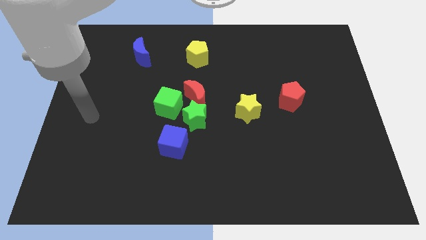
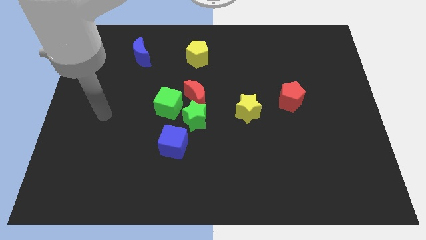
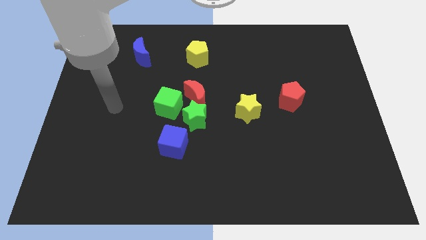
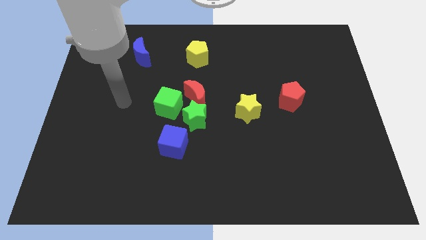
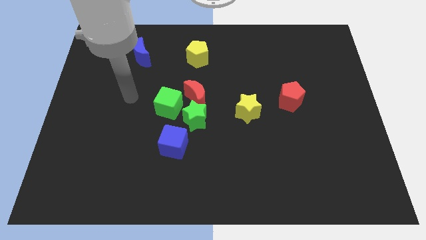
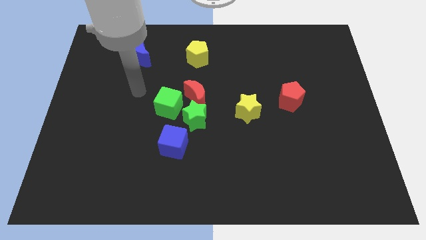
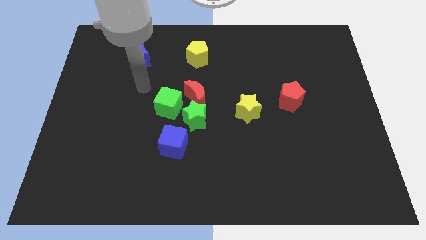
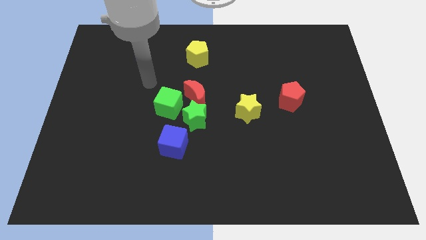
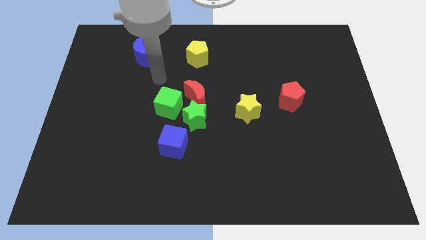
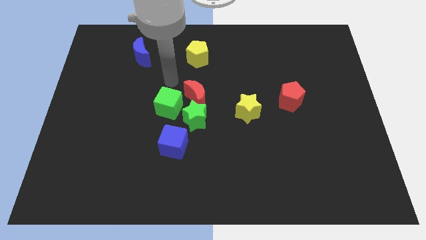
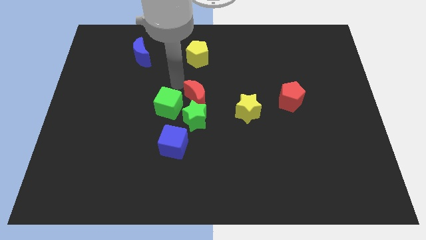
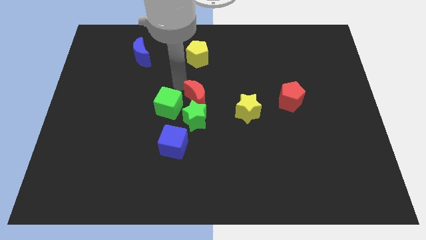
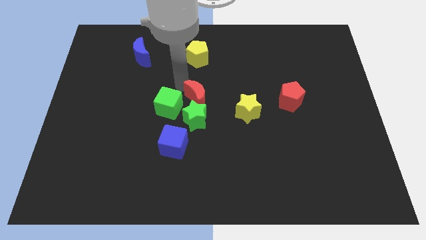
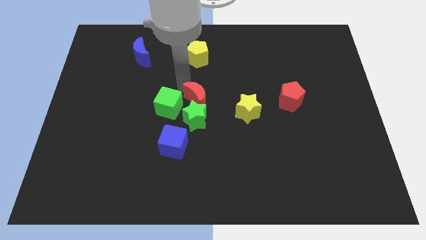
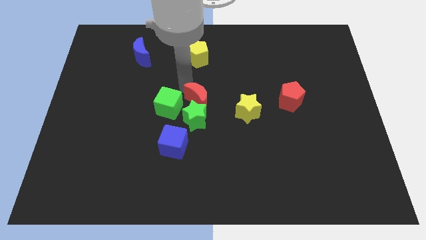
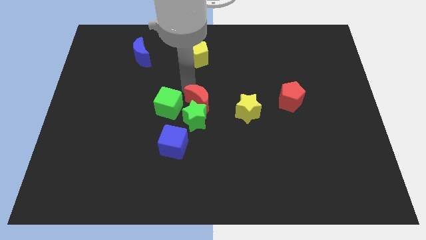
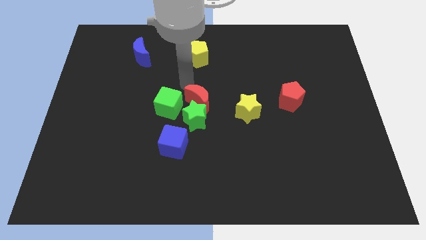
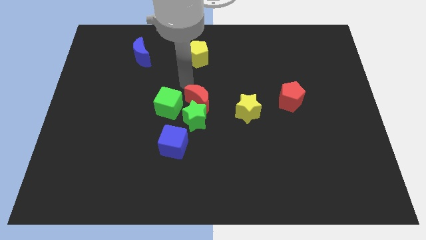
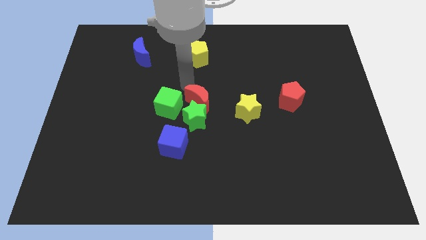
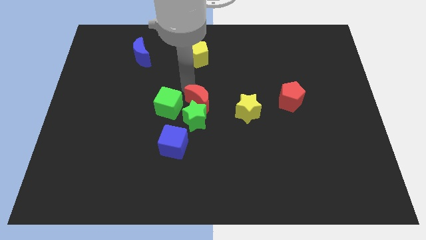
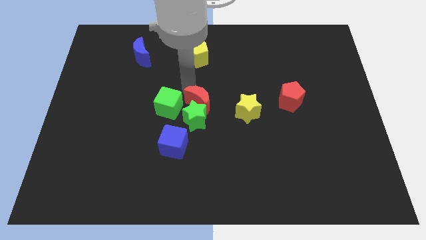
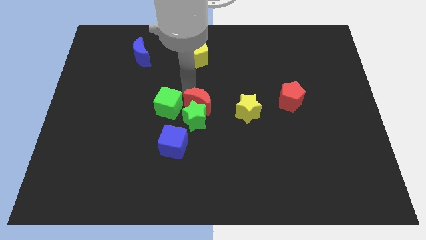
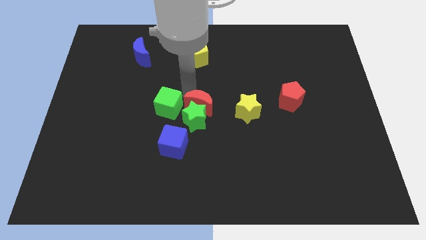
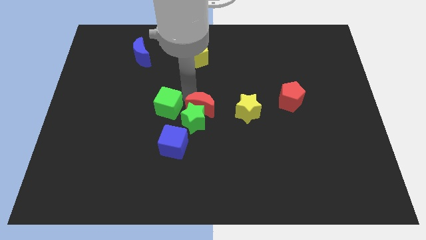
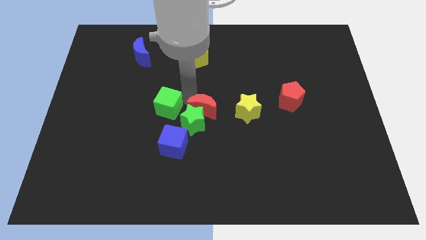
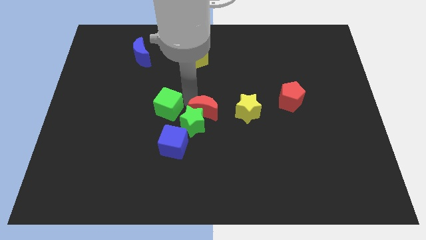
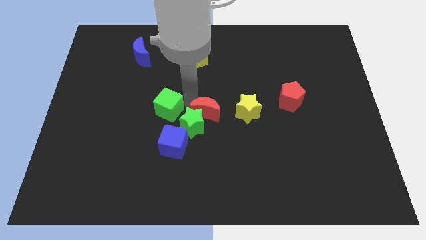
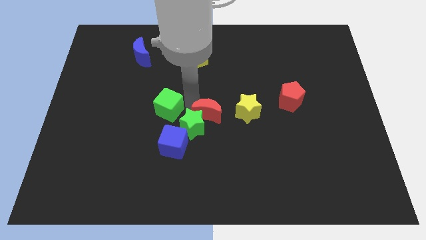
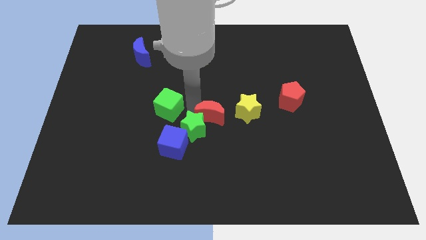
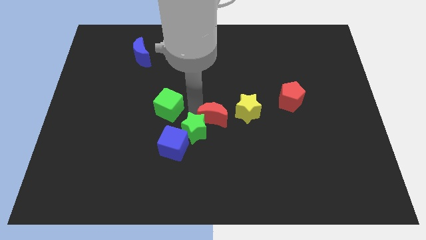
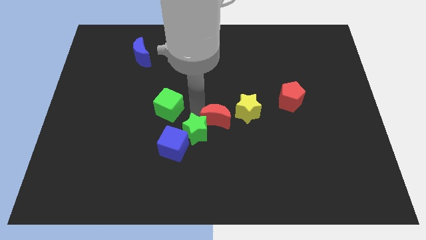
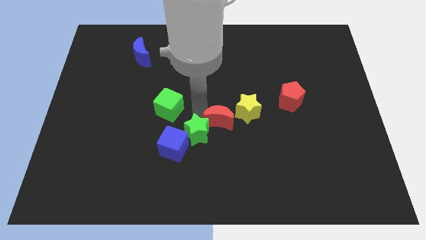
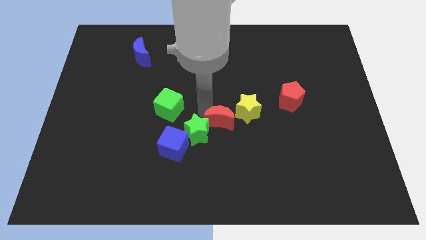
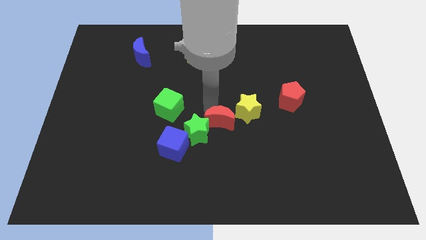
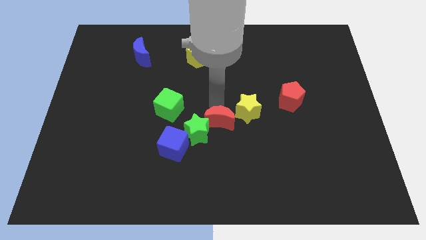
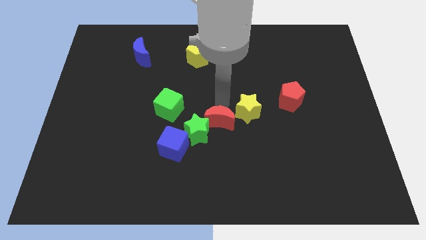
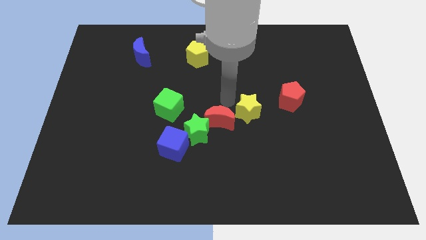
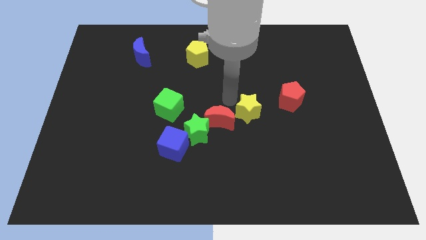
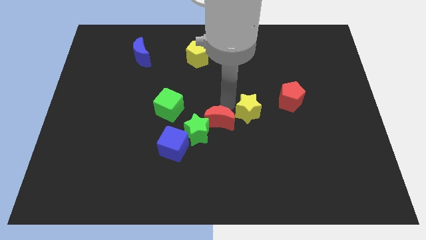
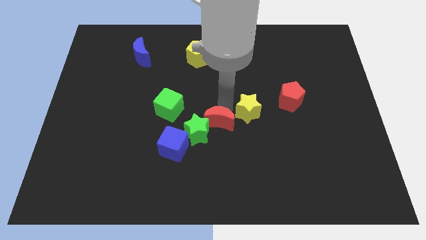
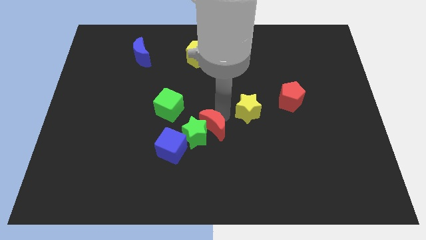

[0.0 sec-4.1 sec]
move the red moon down a little

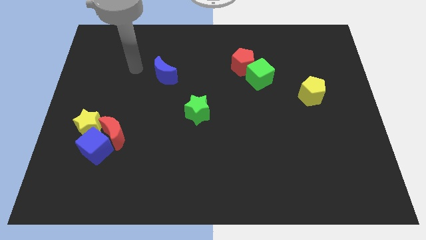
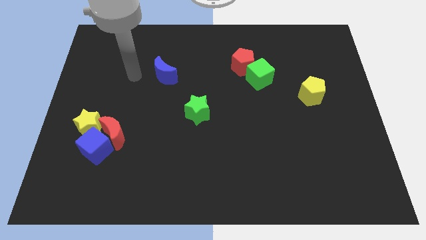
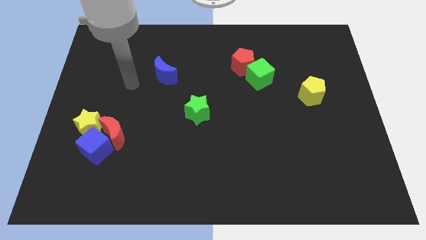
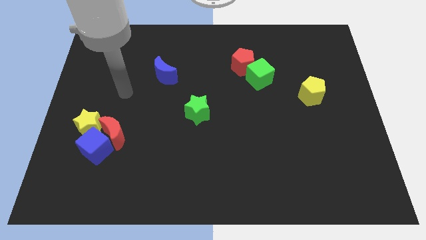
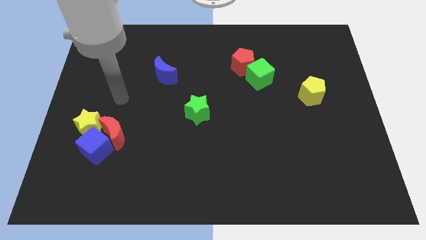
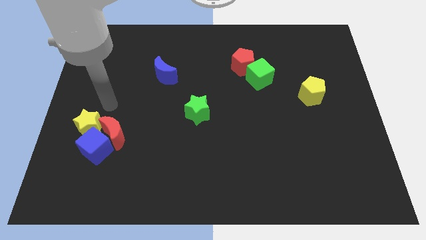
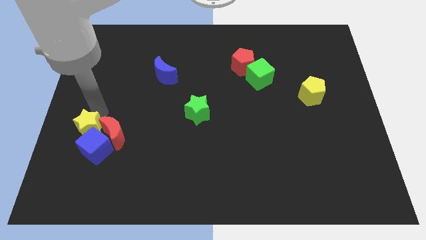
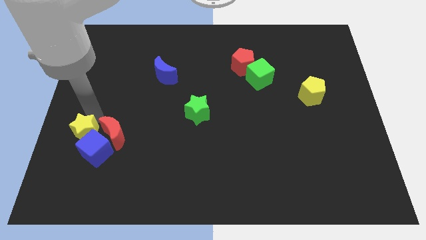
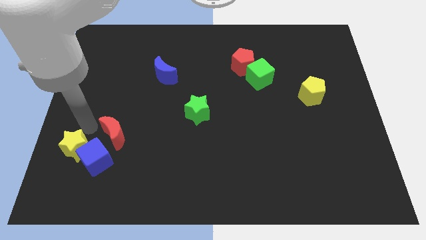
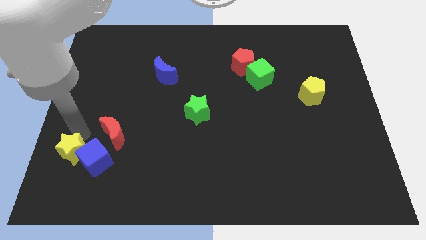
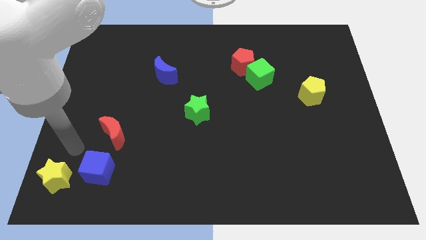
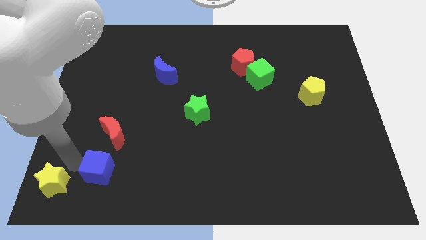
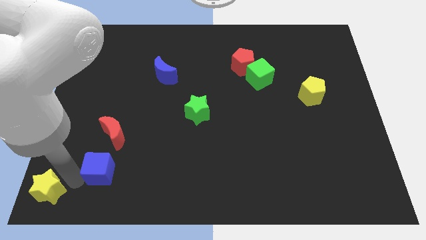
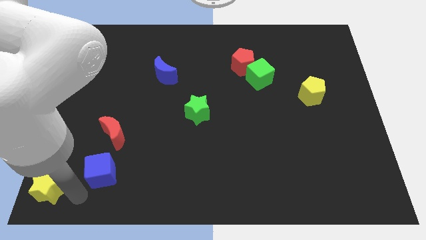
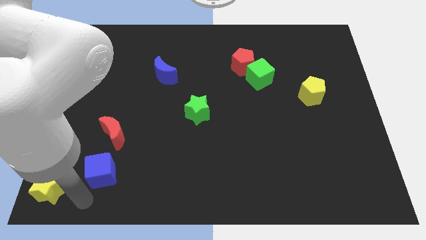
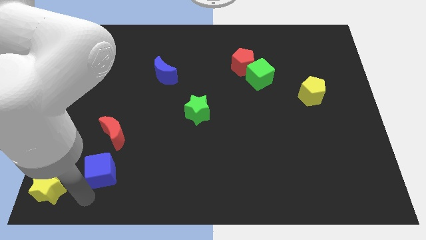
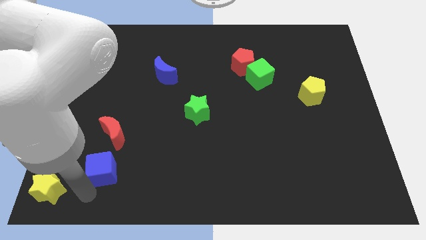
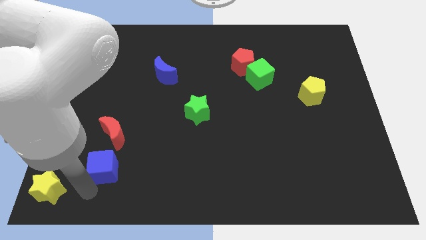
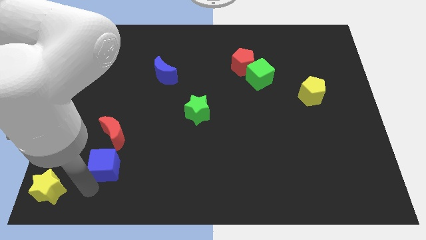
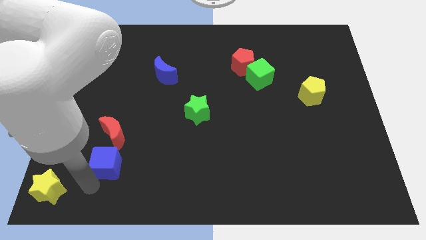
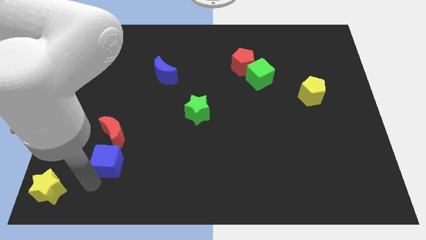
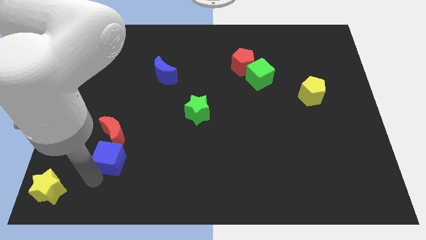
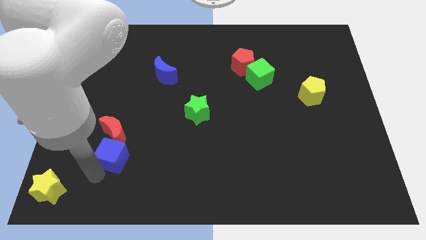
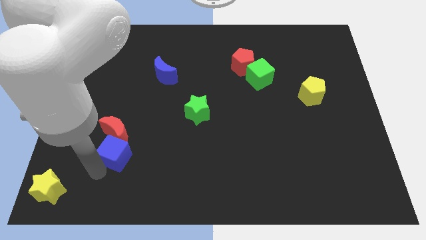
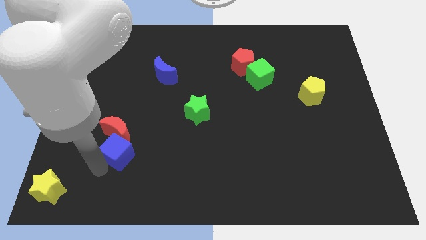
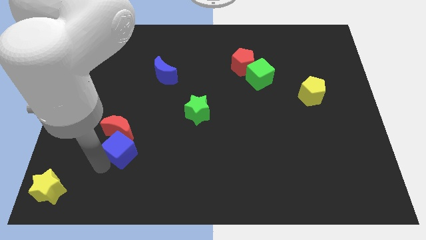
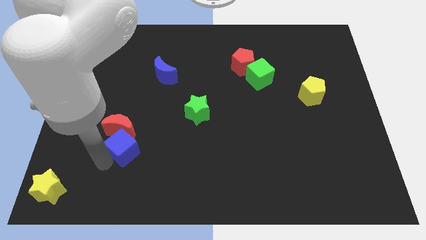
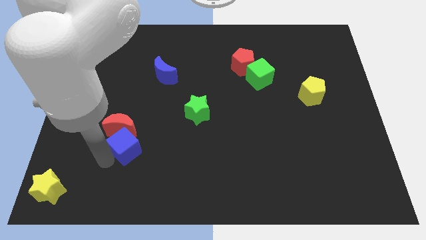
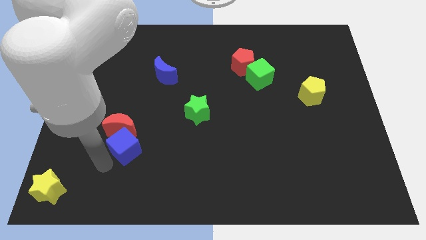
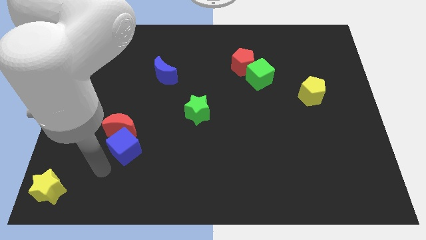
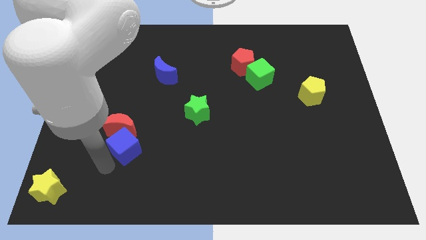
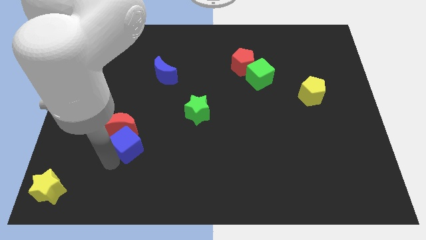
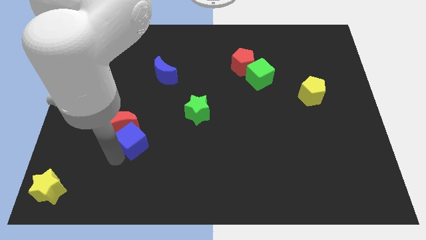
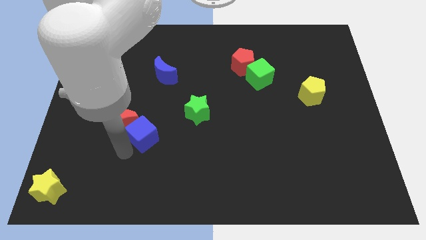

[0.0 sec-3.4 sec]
move the blue cube somewhat upwards and right

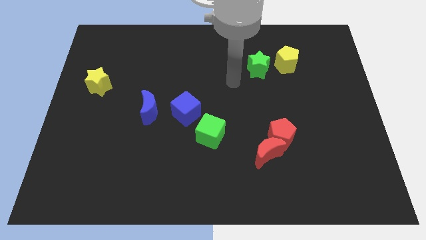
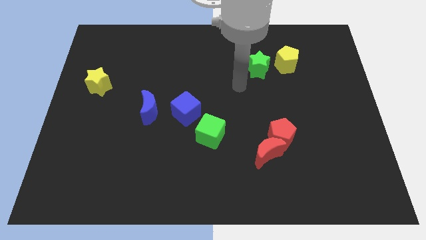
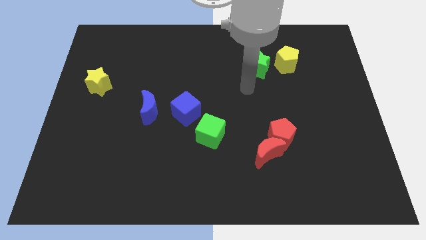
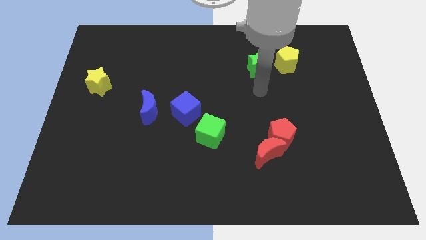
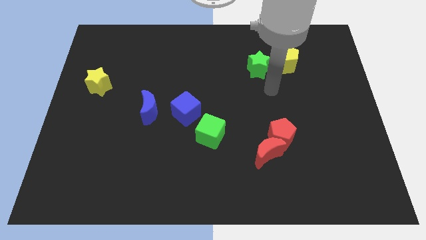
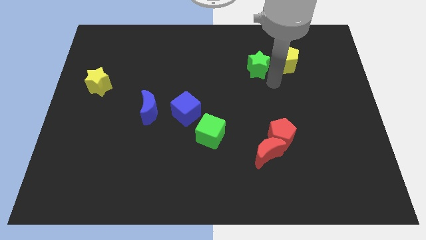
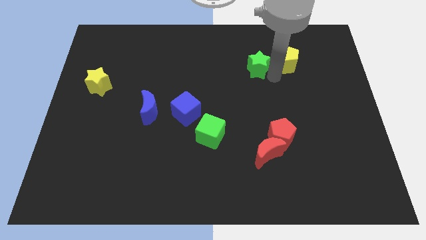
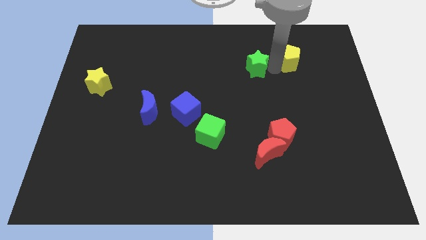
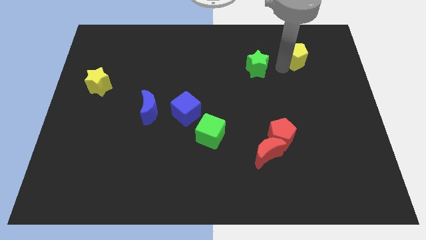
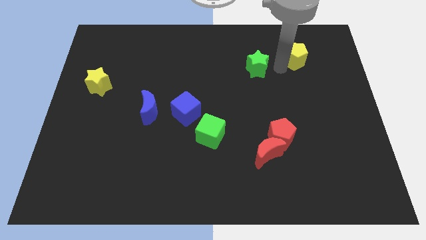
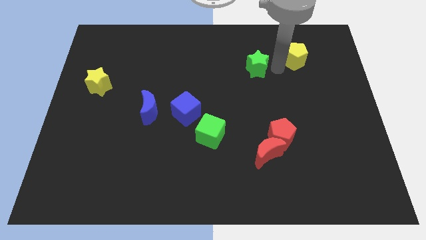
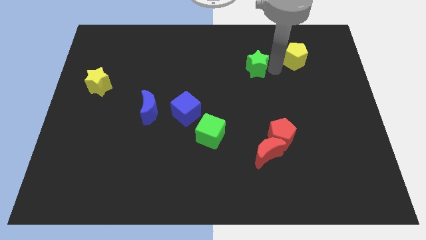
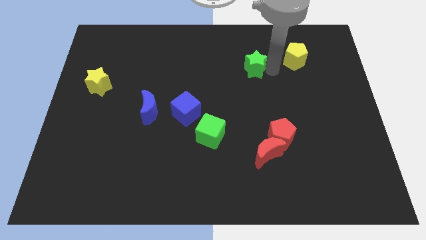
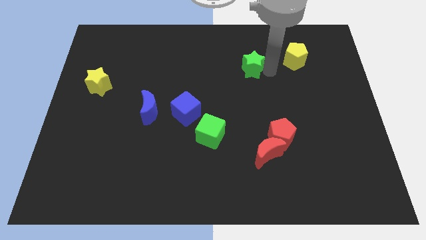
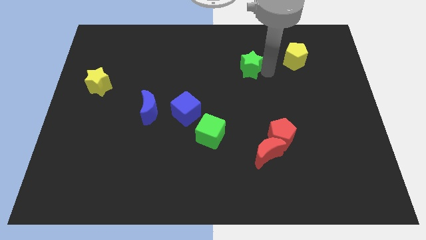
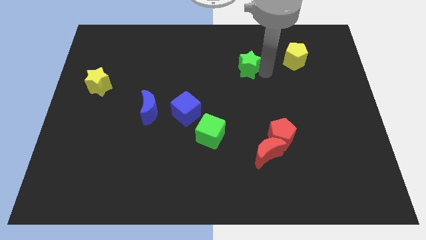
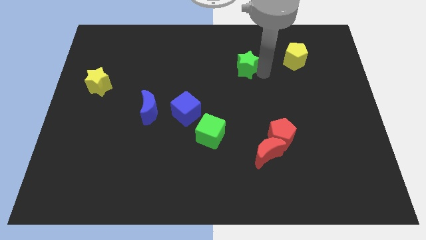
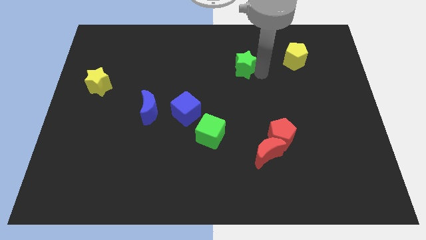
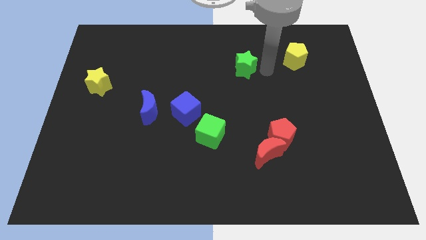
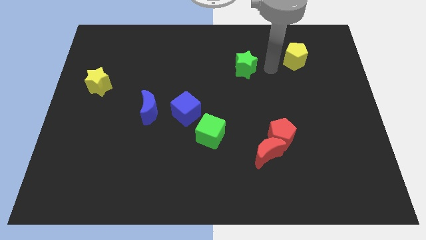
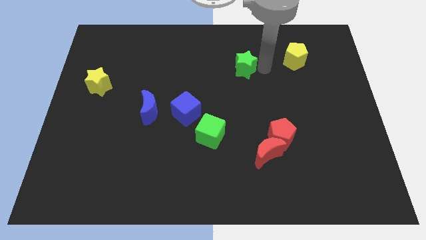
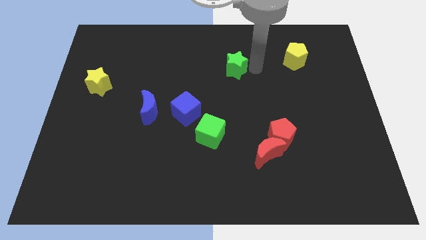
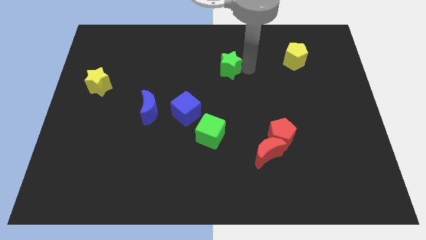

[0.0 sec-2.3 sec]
move the green star to the left slightly
